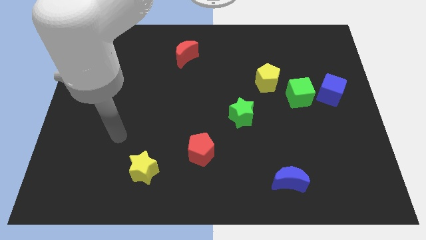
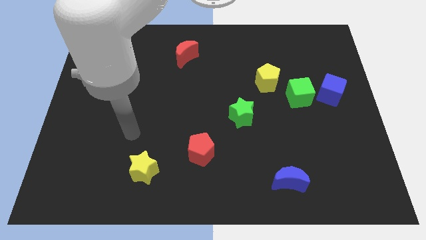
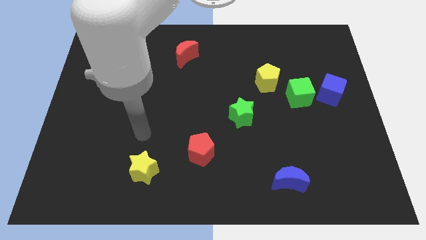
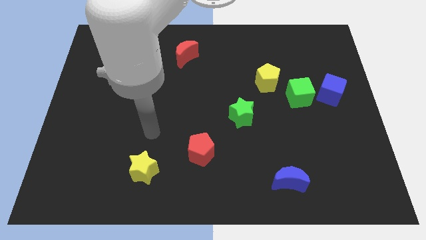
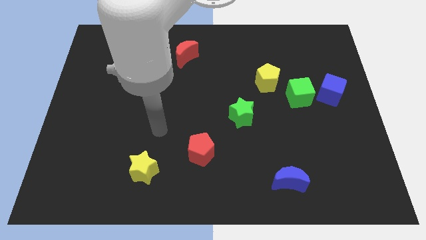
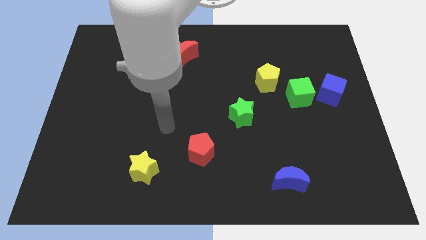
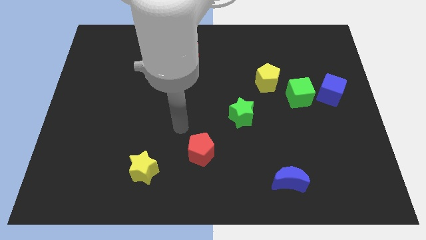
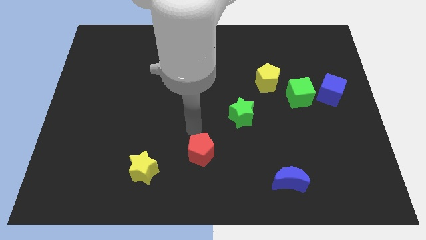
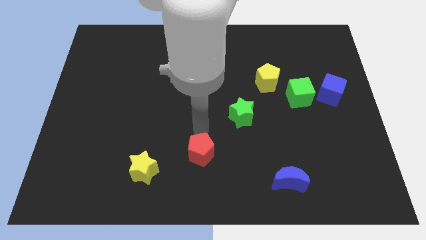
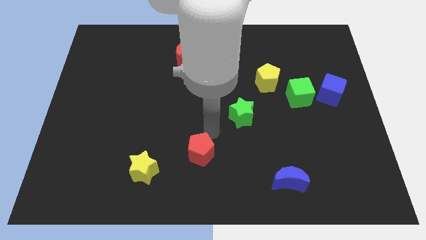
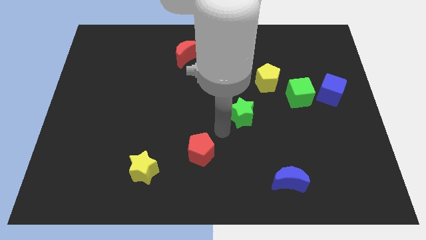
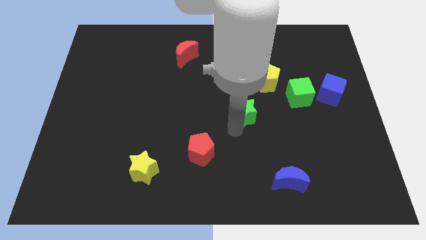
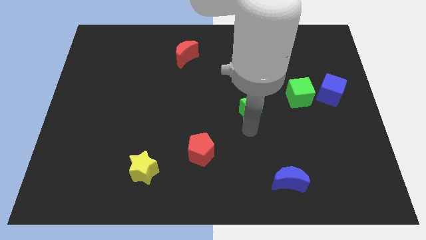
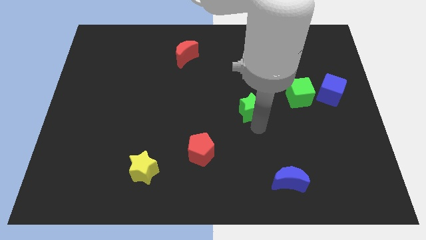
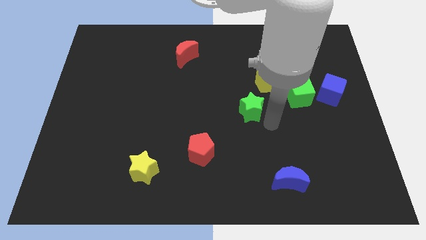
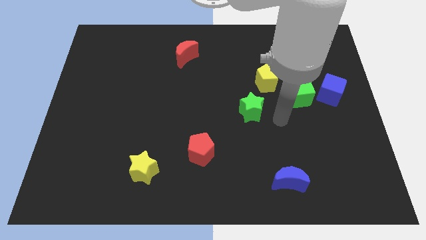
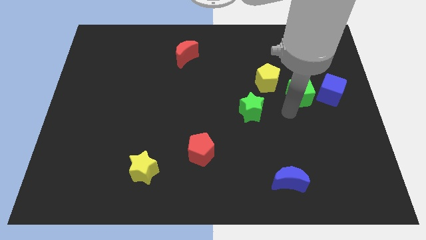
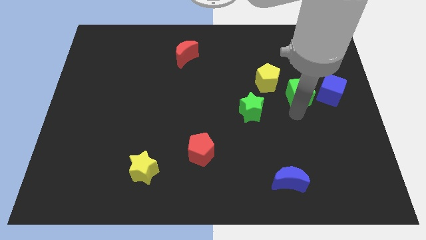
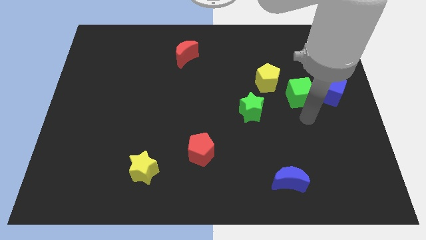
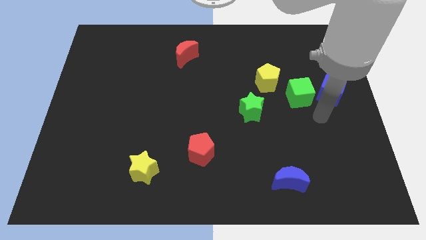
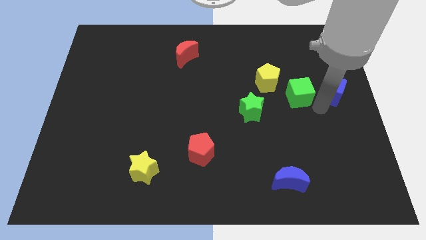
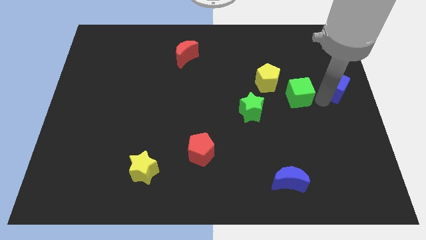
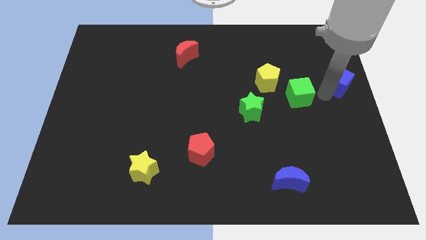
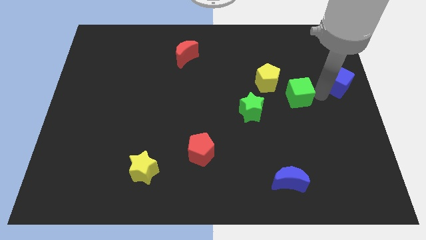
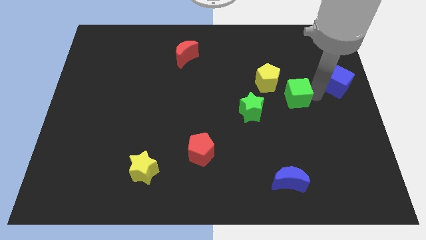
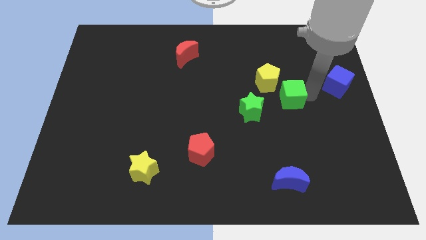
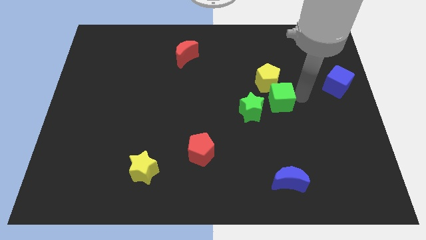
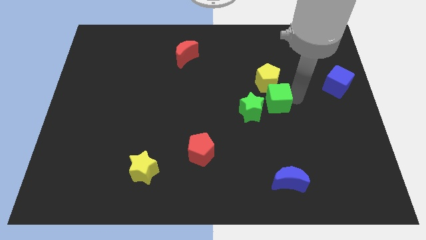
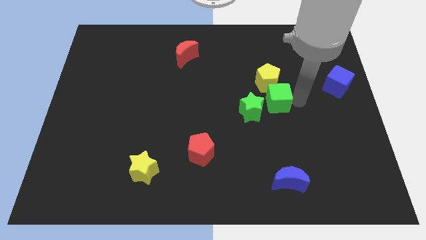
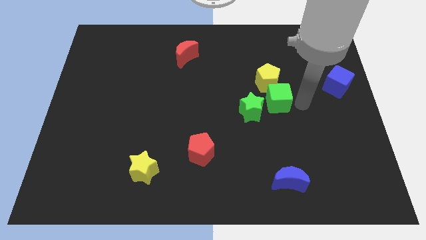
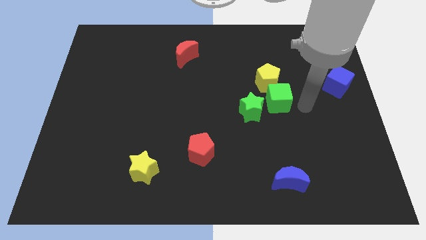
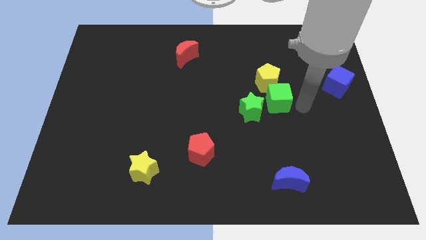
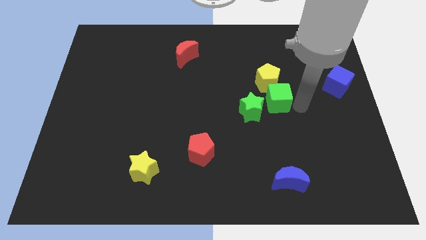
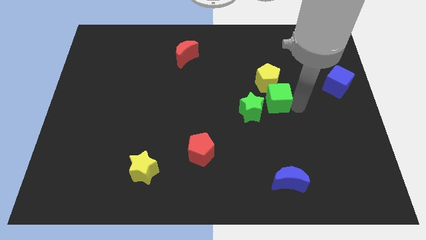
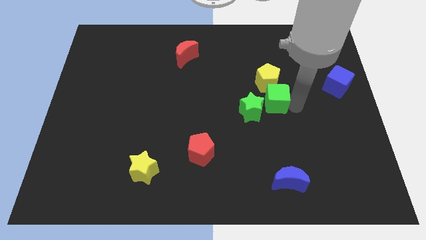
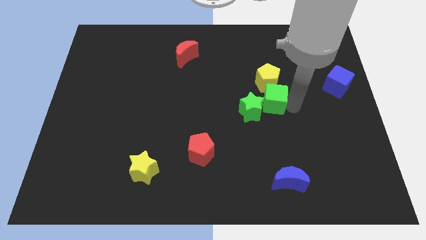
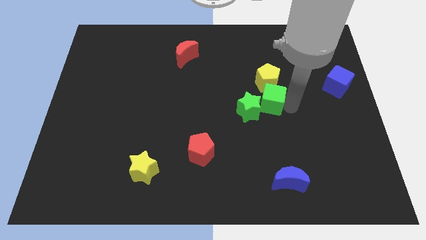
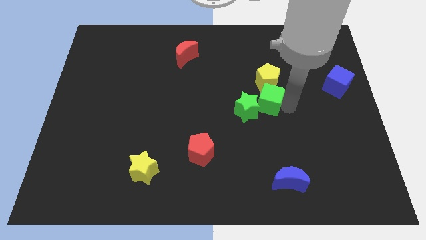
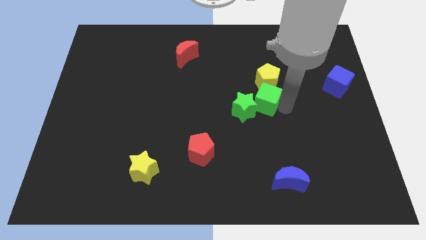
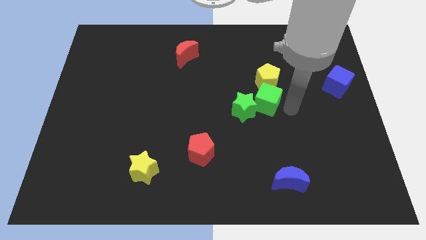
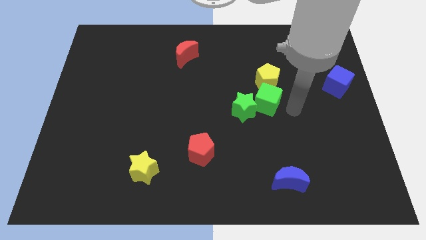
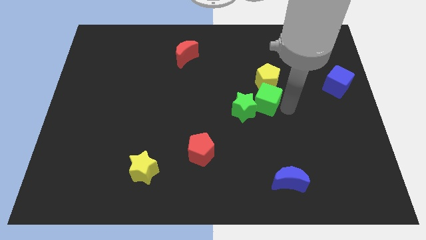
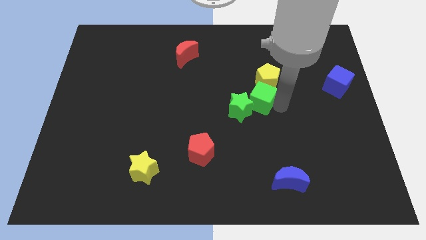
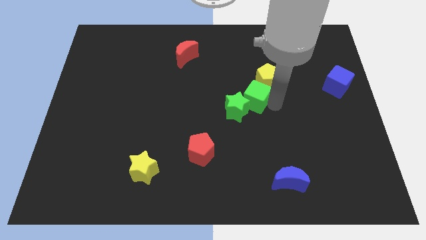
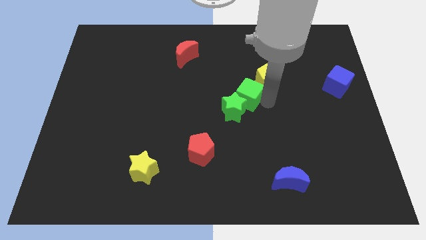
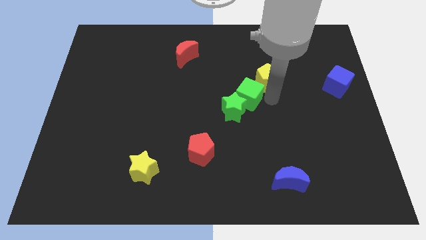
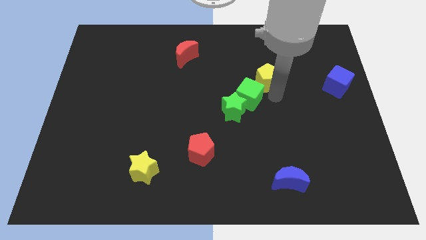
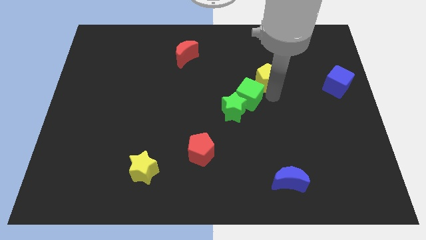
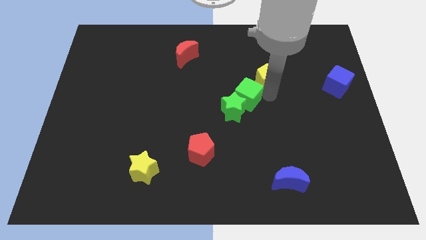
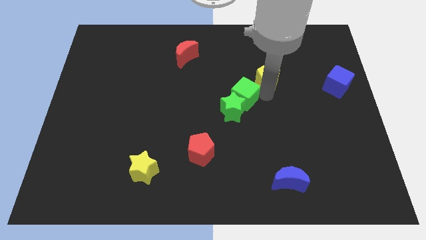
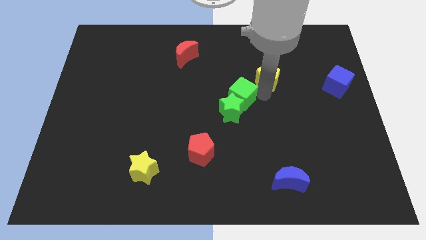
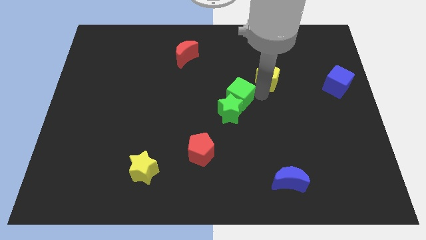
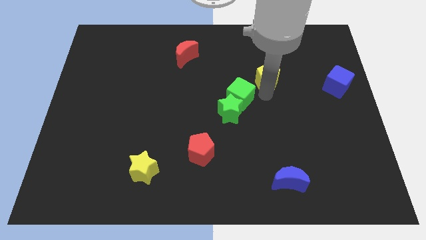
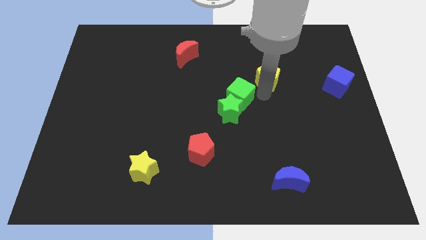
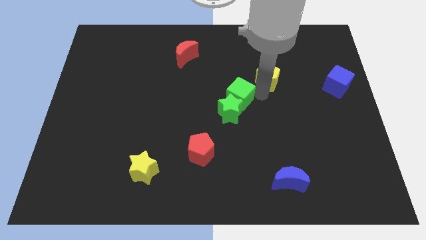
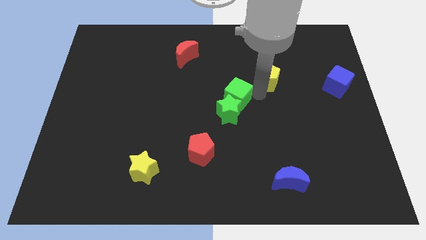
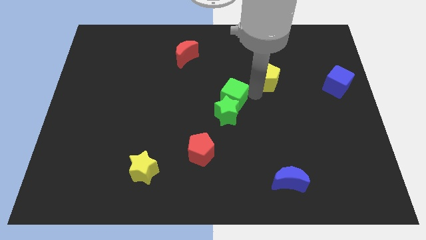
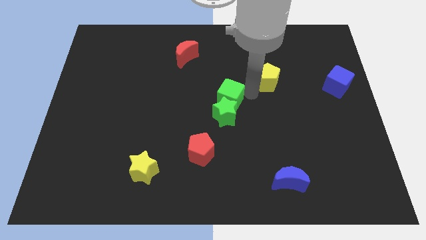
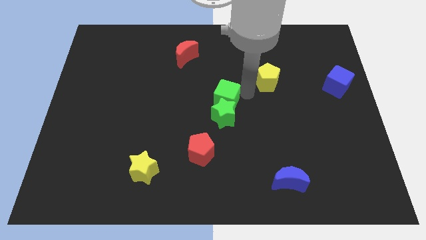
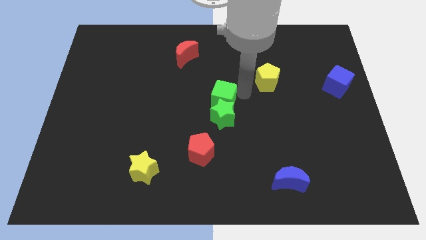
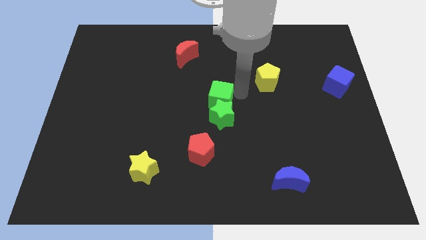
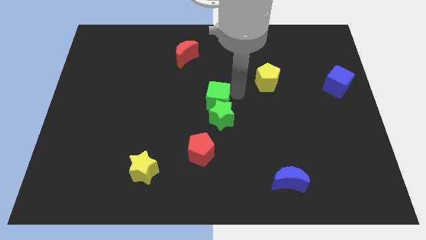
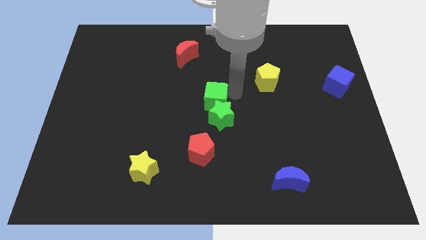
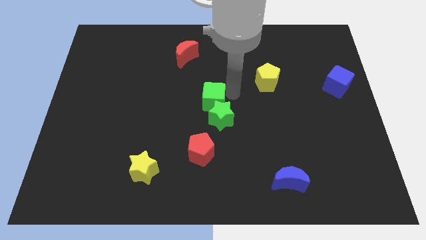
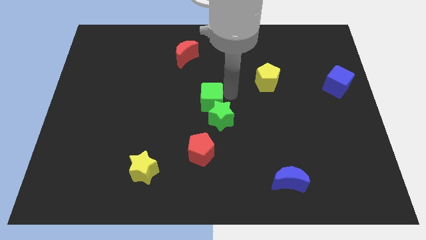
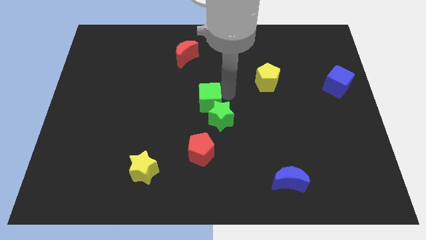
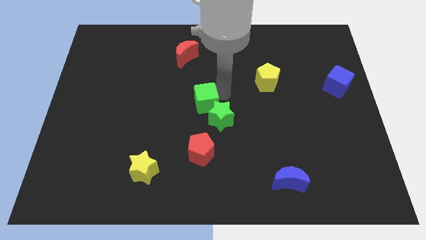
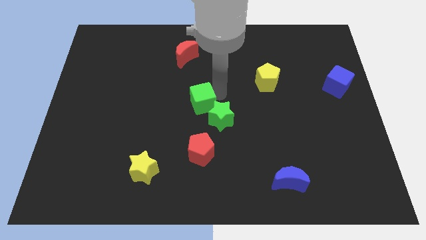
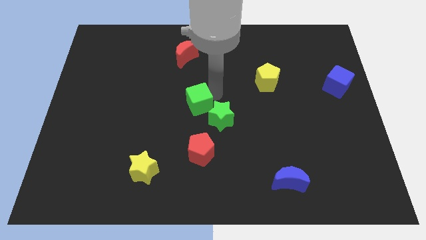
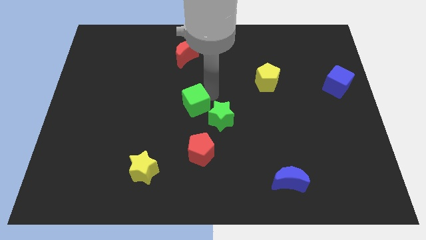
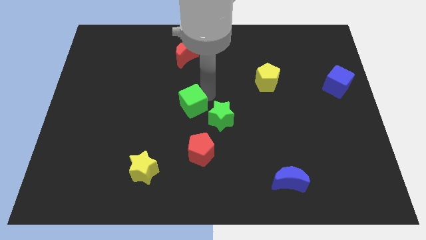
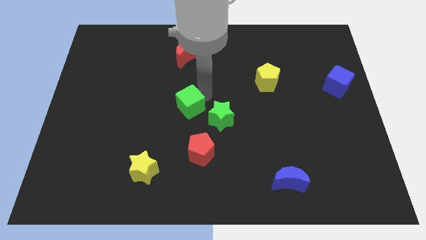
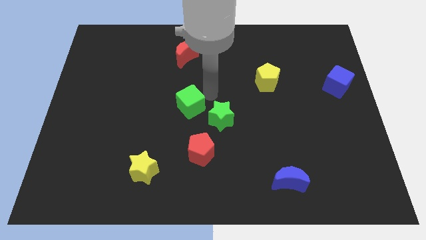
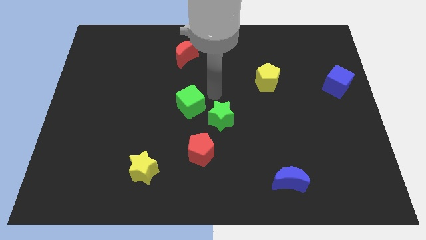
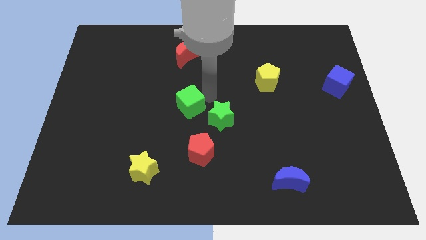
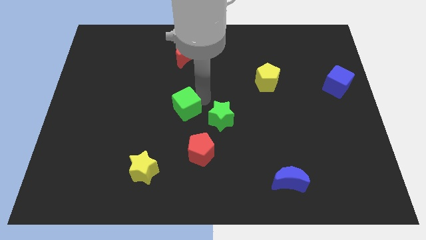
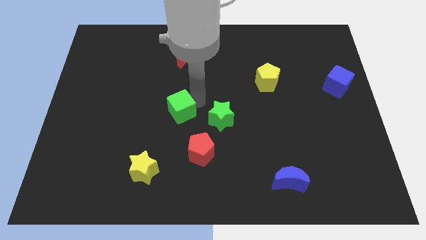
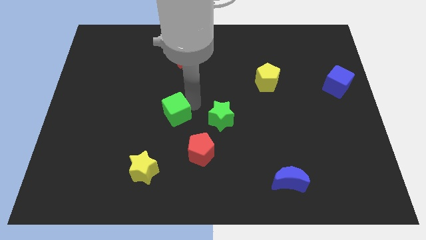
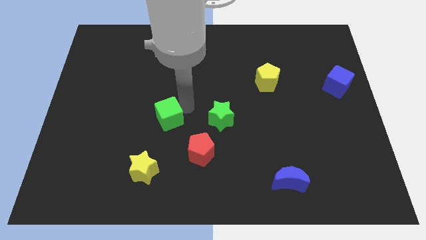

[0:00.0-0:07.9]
put the green cube to the top side of the yellow star
